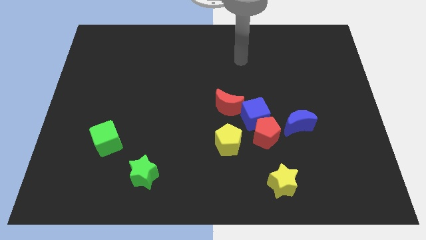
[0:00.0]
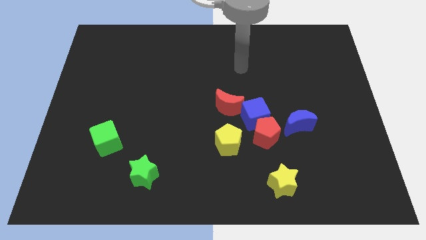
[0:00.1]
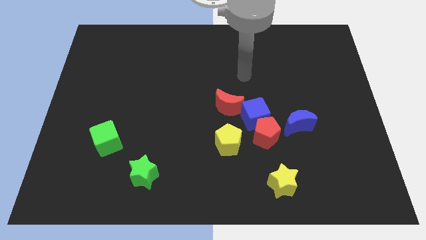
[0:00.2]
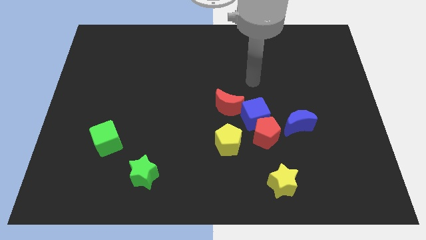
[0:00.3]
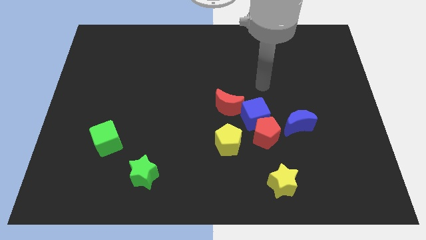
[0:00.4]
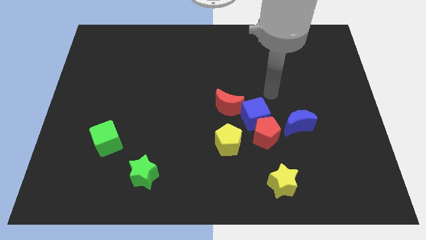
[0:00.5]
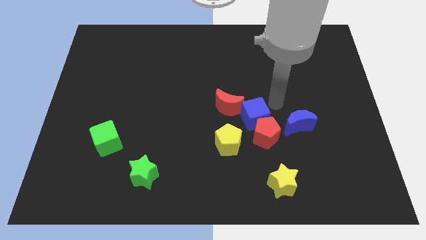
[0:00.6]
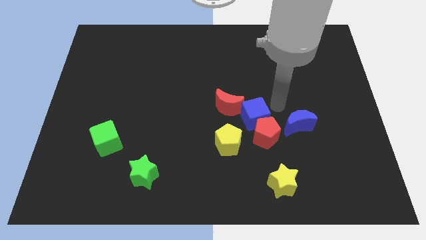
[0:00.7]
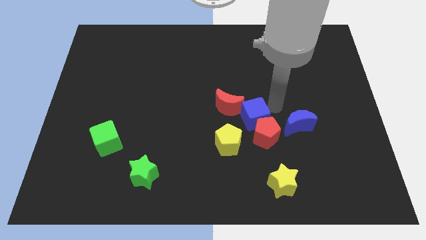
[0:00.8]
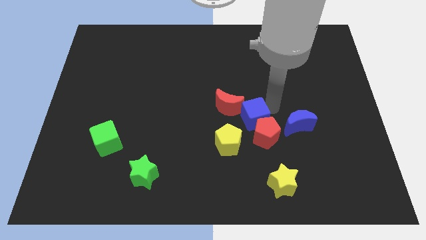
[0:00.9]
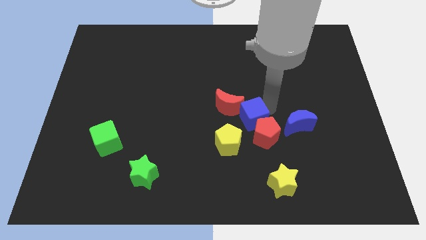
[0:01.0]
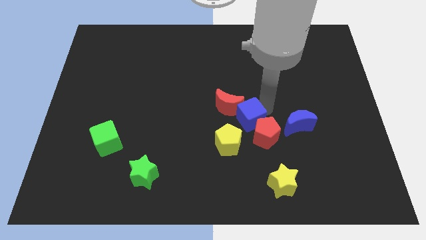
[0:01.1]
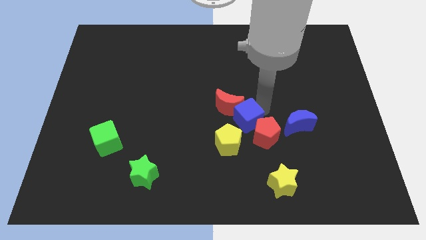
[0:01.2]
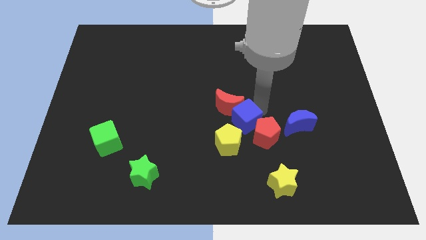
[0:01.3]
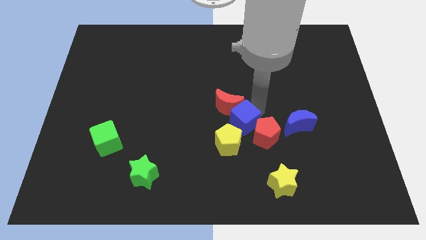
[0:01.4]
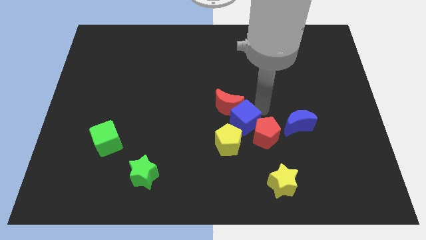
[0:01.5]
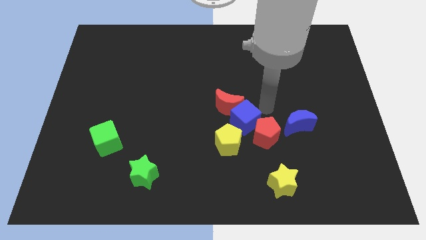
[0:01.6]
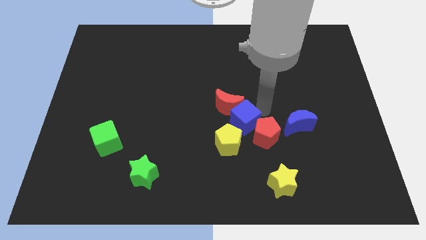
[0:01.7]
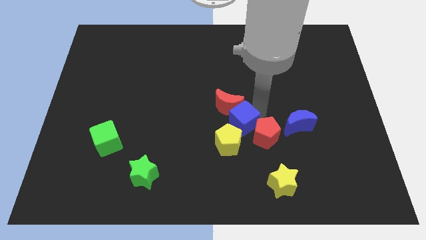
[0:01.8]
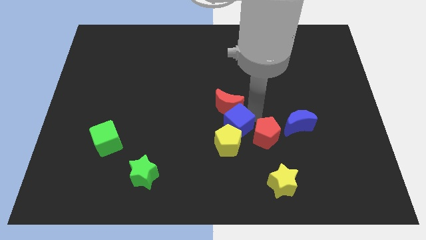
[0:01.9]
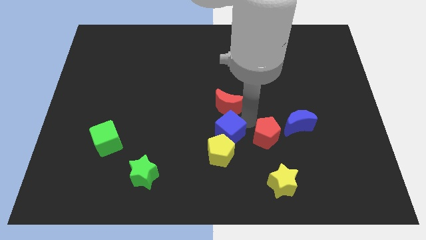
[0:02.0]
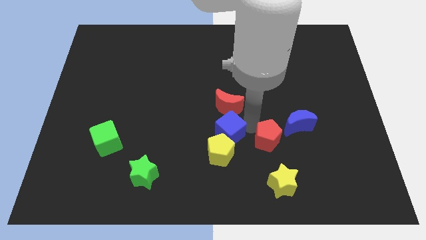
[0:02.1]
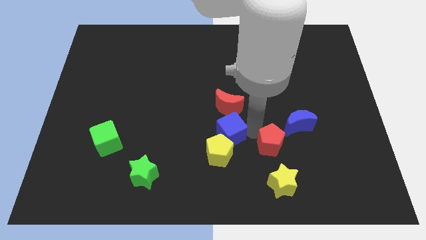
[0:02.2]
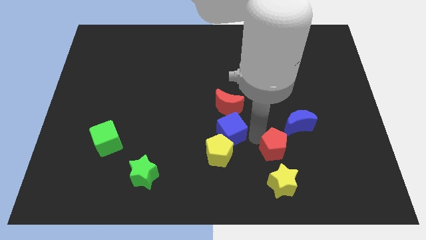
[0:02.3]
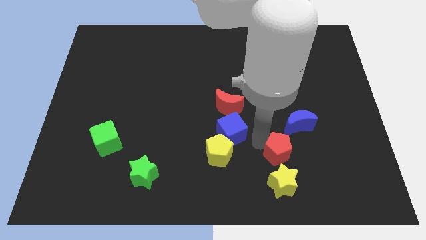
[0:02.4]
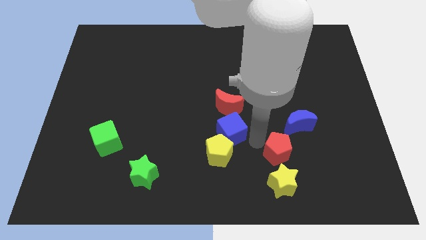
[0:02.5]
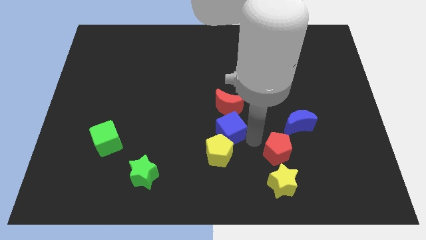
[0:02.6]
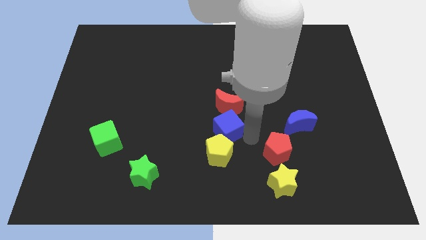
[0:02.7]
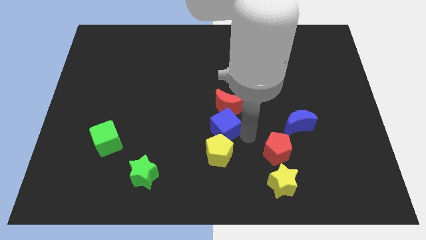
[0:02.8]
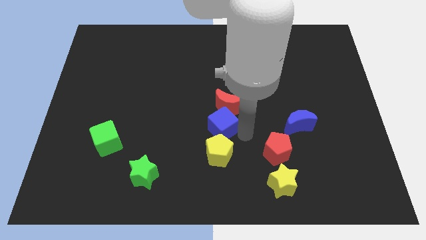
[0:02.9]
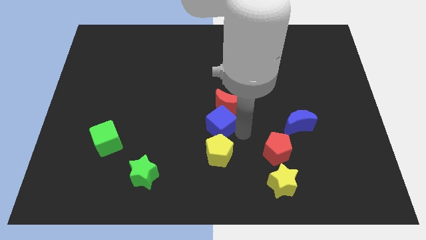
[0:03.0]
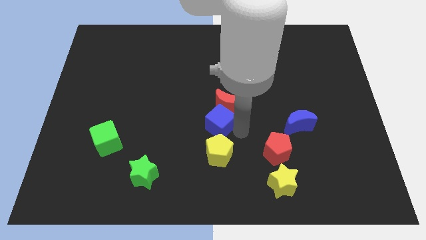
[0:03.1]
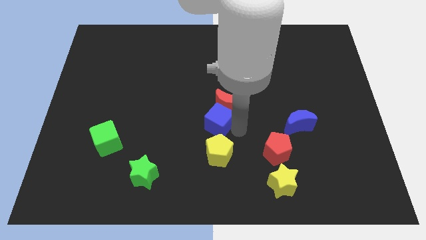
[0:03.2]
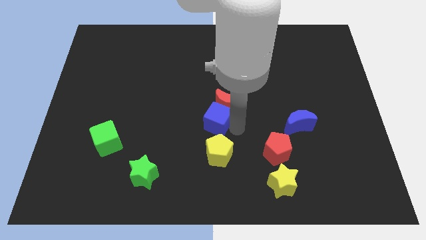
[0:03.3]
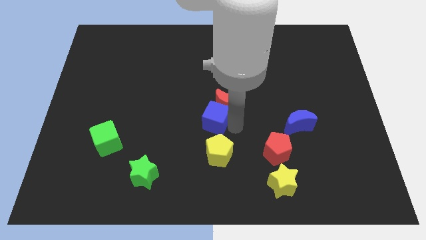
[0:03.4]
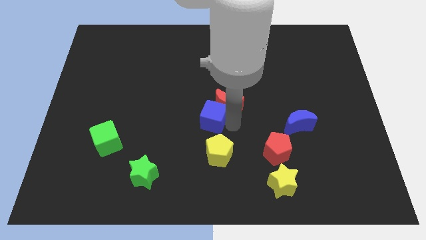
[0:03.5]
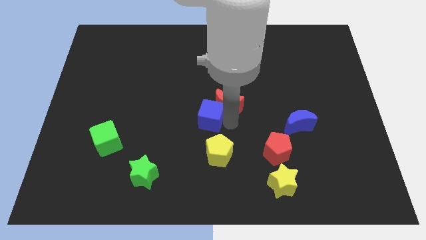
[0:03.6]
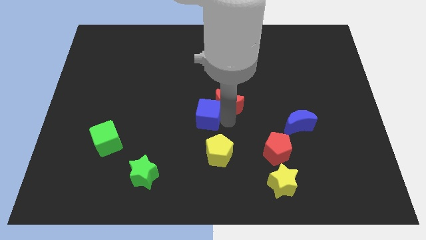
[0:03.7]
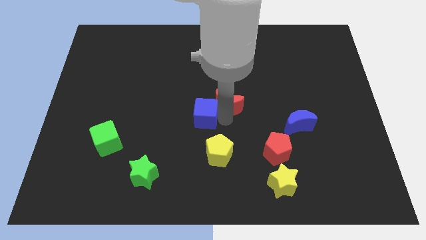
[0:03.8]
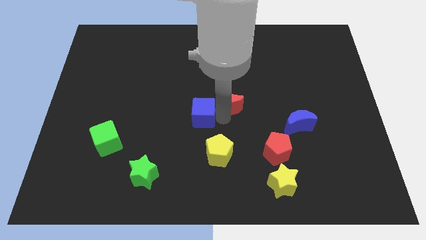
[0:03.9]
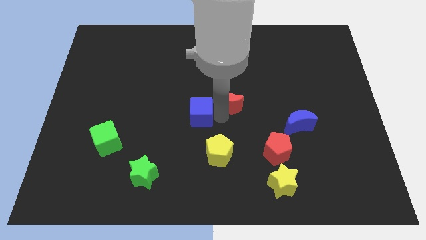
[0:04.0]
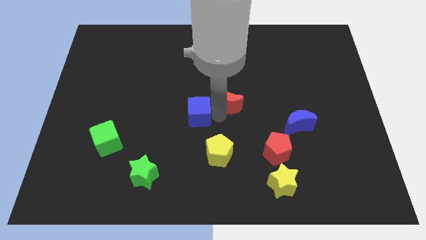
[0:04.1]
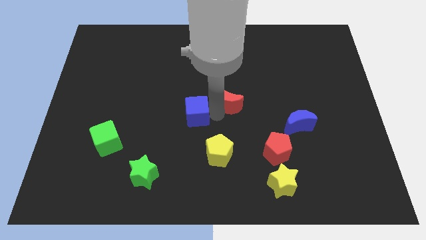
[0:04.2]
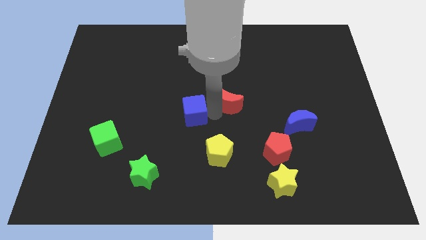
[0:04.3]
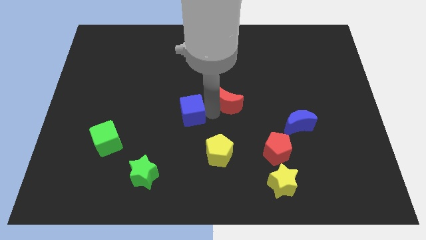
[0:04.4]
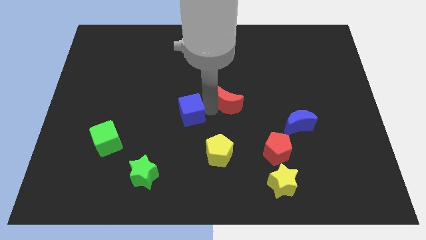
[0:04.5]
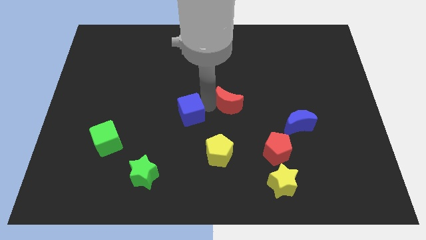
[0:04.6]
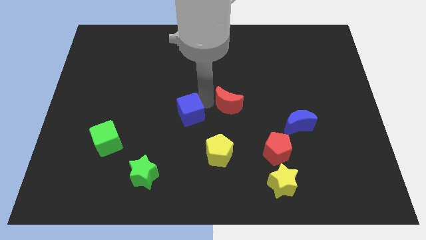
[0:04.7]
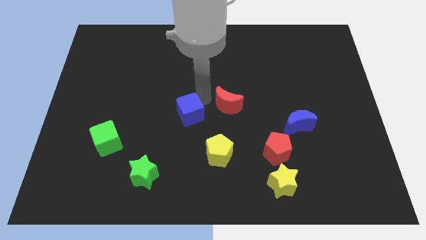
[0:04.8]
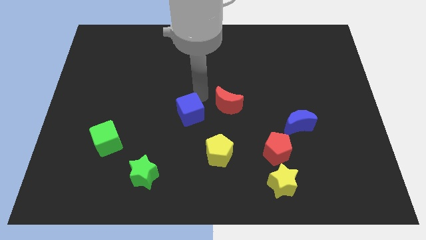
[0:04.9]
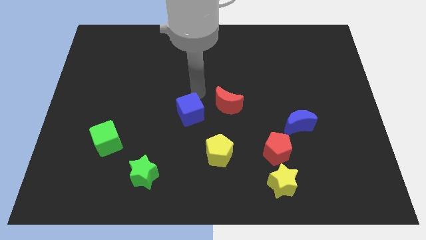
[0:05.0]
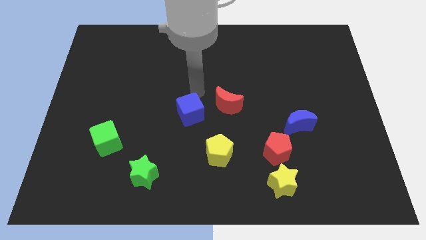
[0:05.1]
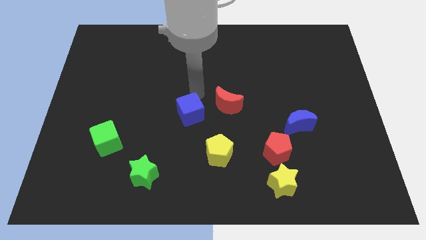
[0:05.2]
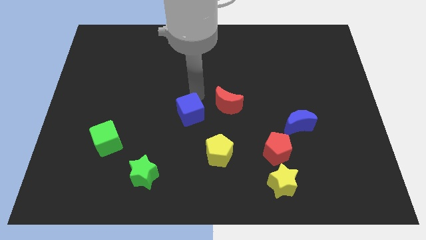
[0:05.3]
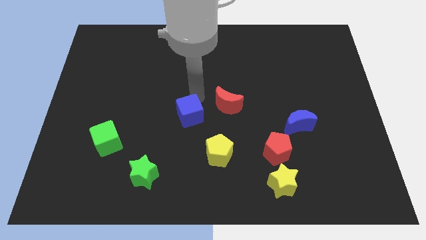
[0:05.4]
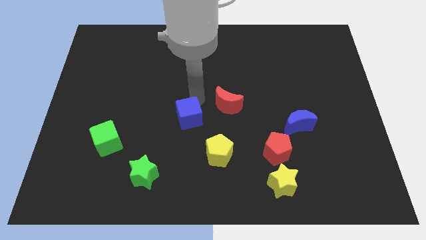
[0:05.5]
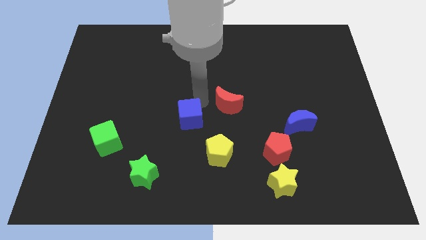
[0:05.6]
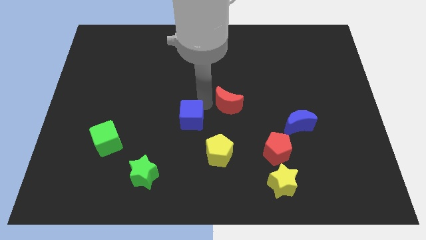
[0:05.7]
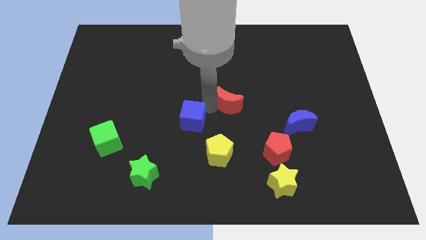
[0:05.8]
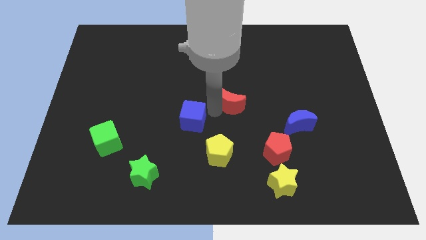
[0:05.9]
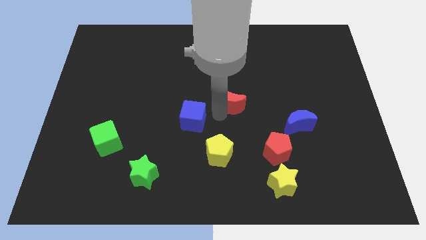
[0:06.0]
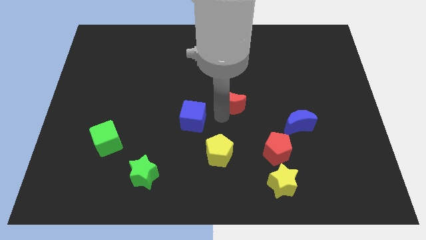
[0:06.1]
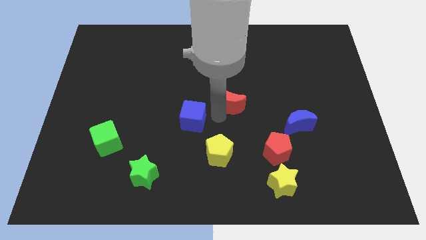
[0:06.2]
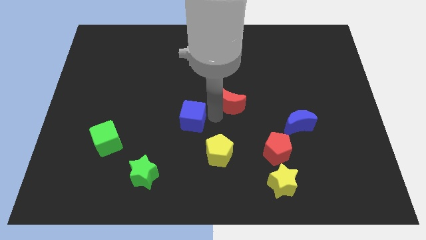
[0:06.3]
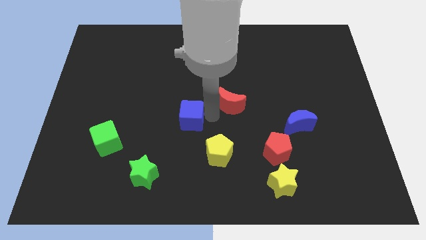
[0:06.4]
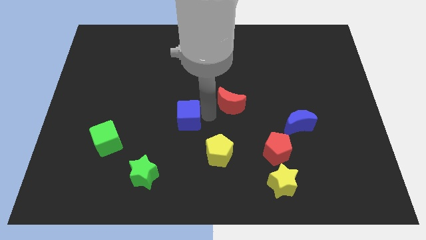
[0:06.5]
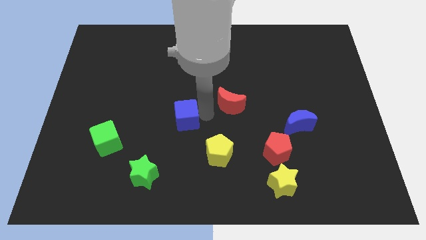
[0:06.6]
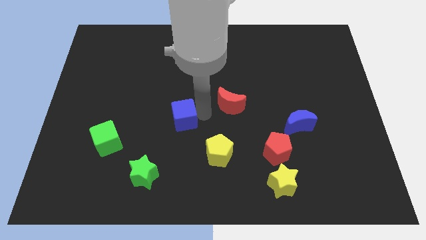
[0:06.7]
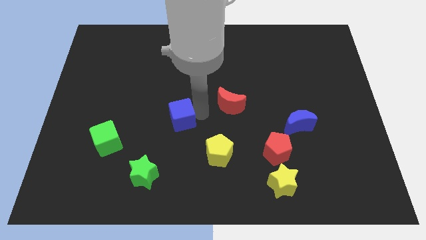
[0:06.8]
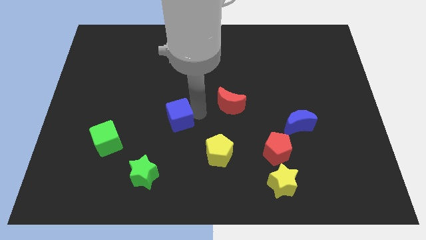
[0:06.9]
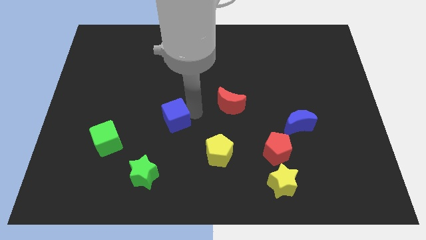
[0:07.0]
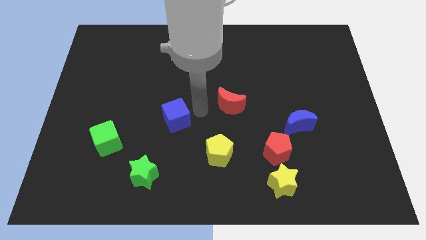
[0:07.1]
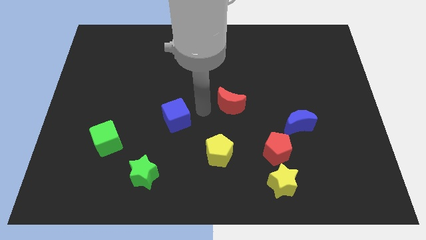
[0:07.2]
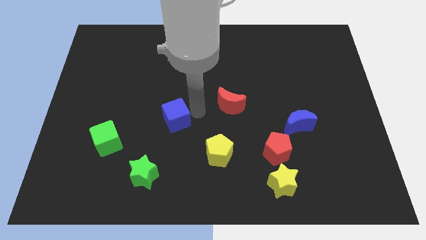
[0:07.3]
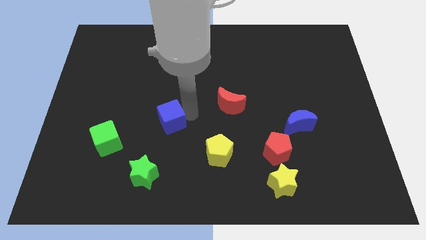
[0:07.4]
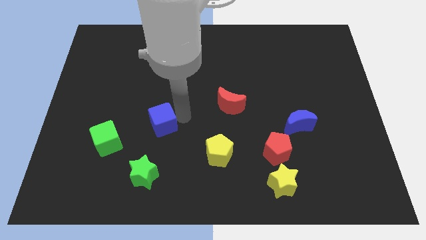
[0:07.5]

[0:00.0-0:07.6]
move the blue cube left

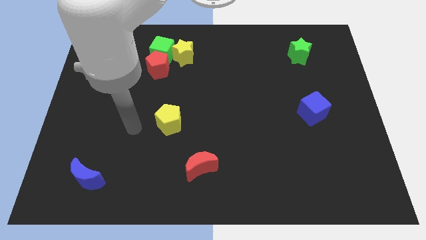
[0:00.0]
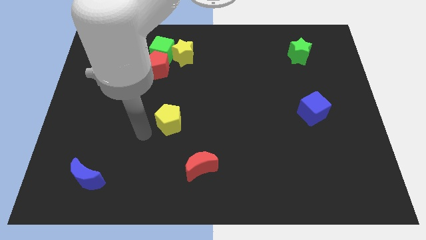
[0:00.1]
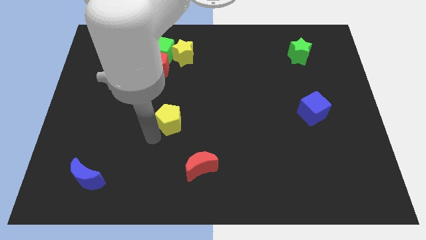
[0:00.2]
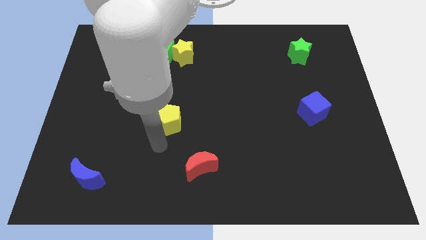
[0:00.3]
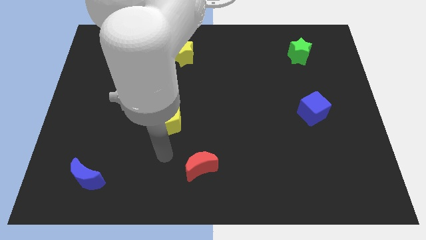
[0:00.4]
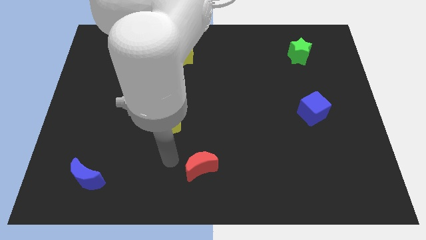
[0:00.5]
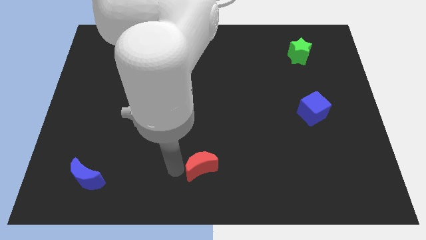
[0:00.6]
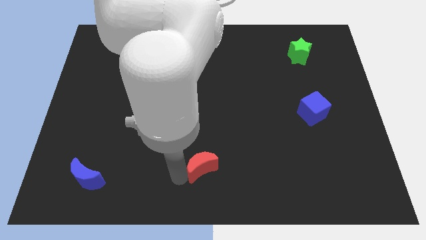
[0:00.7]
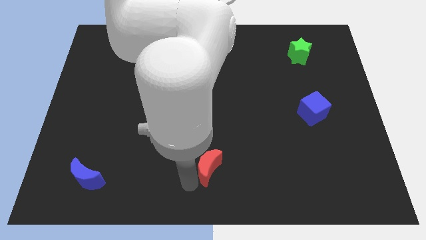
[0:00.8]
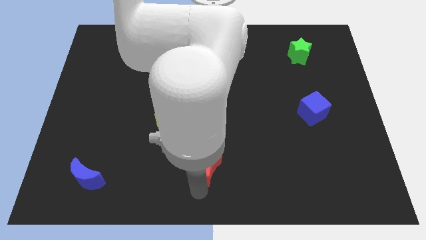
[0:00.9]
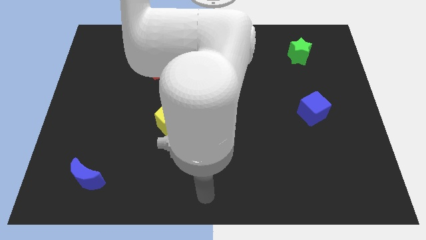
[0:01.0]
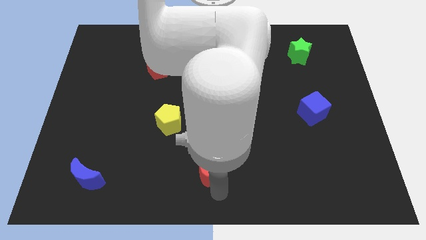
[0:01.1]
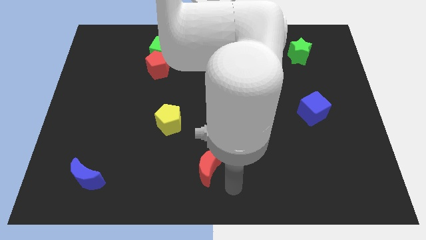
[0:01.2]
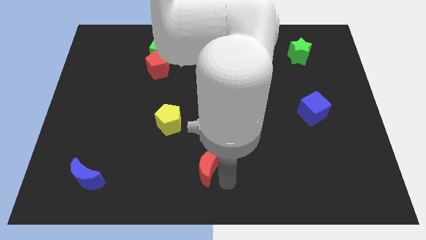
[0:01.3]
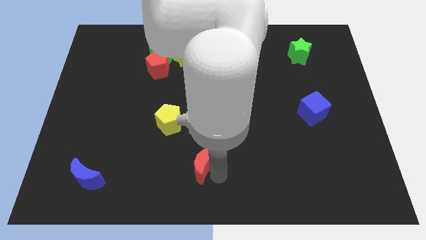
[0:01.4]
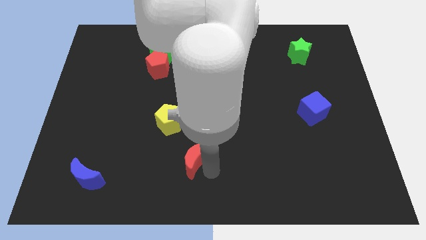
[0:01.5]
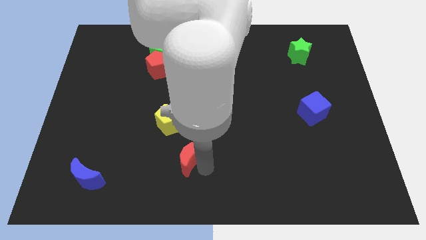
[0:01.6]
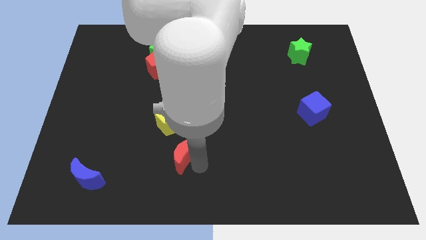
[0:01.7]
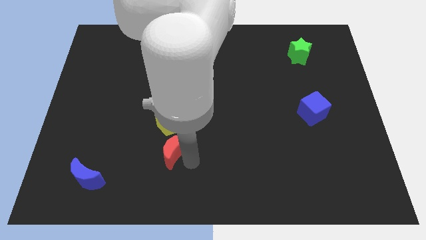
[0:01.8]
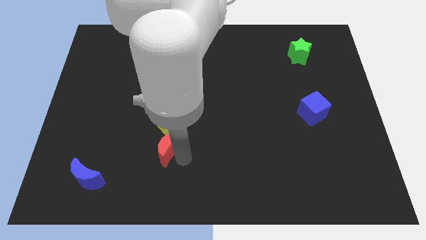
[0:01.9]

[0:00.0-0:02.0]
push the red moon a little bit up and then left
